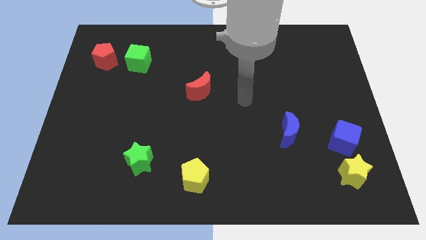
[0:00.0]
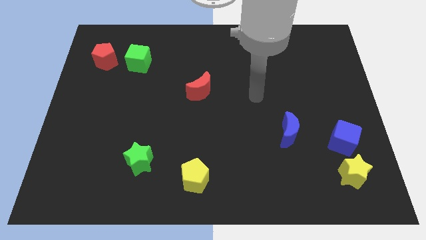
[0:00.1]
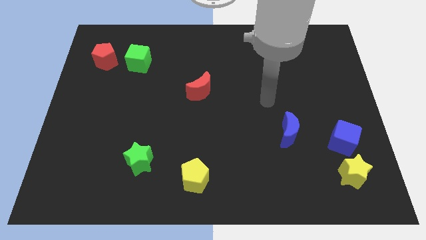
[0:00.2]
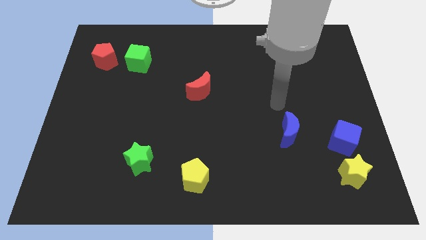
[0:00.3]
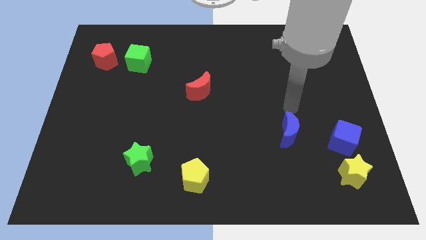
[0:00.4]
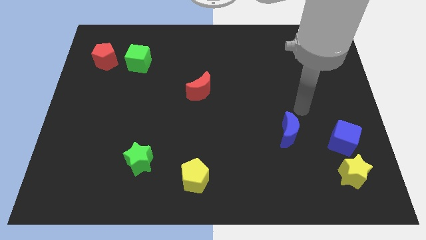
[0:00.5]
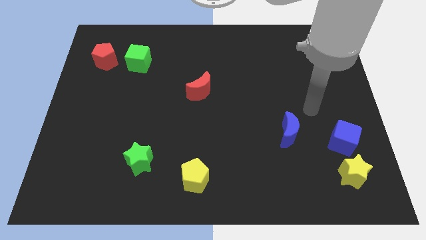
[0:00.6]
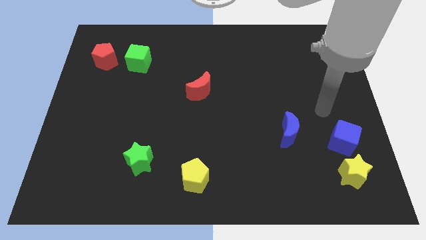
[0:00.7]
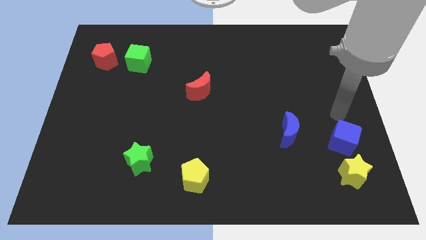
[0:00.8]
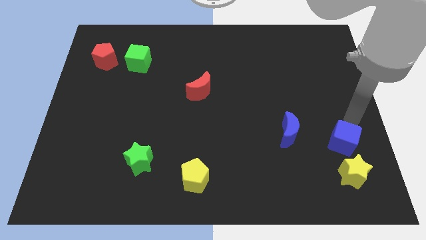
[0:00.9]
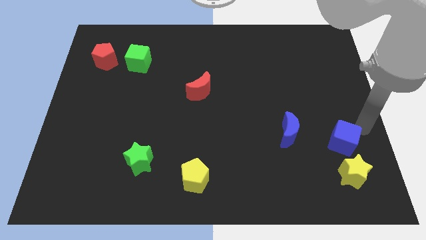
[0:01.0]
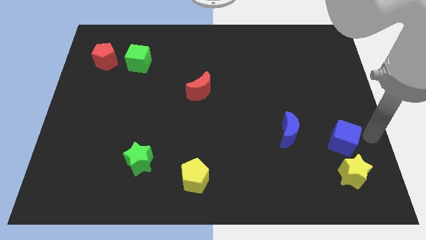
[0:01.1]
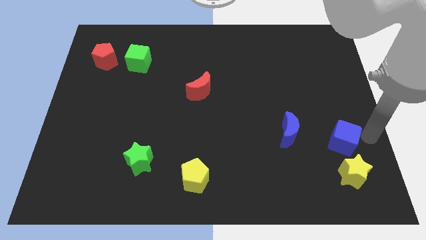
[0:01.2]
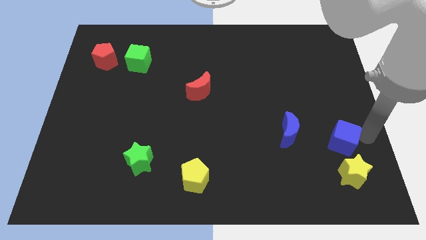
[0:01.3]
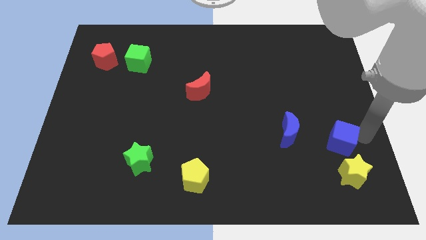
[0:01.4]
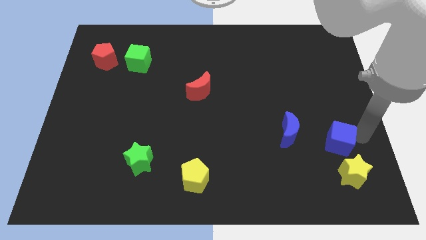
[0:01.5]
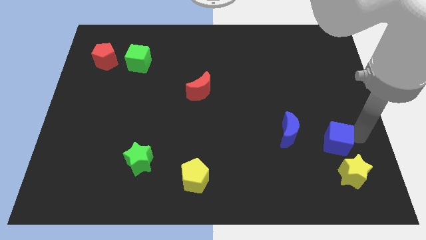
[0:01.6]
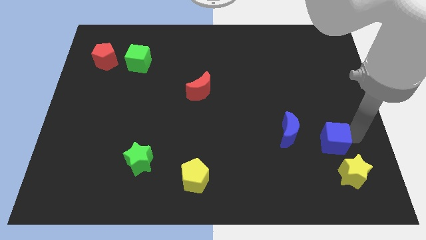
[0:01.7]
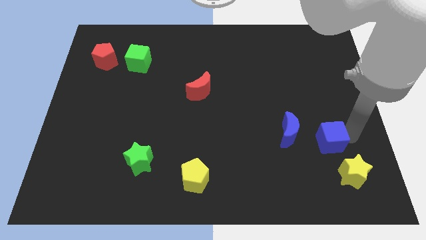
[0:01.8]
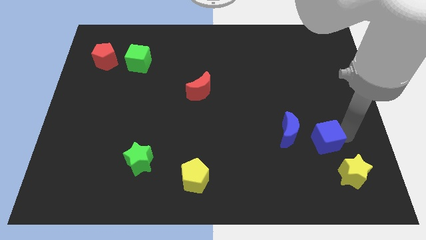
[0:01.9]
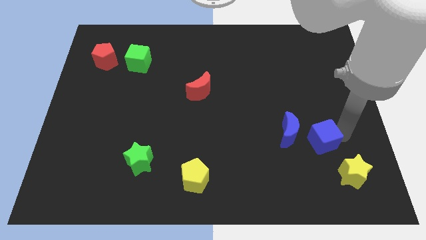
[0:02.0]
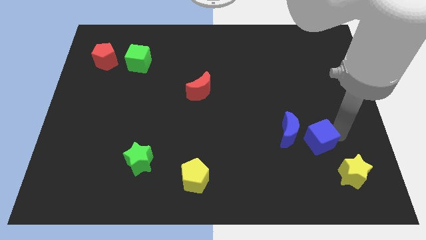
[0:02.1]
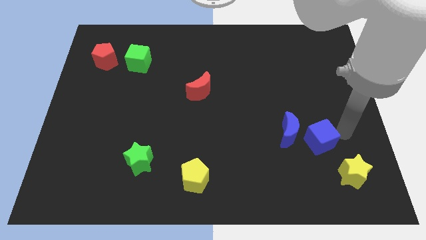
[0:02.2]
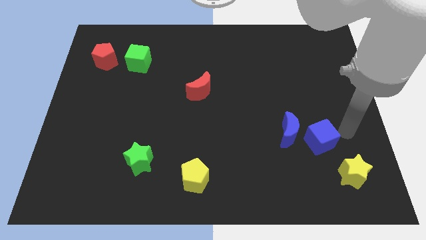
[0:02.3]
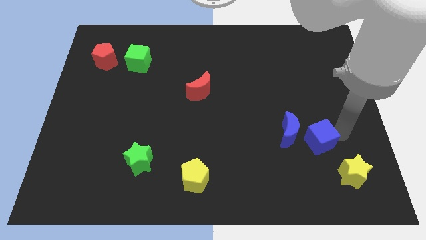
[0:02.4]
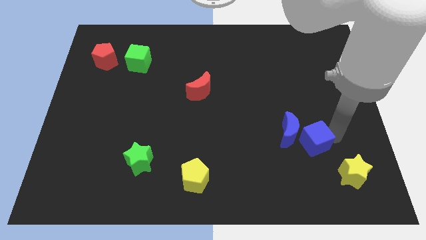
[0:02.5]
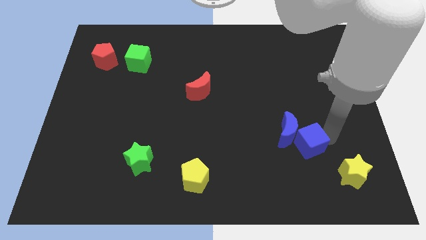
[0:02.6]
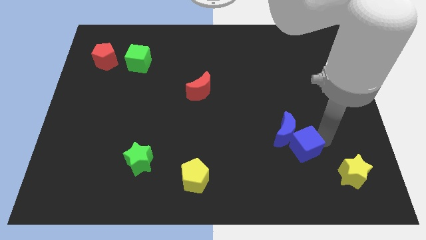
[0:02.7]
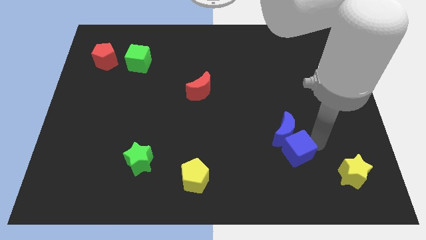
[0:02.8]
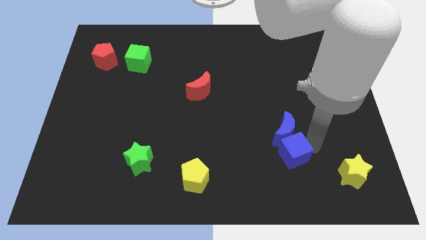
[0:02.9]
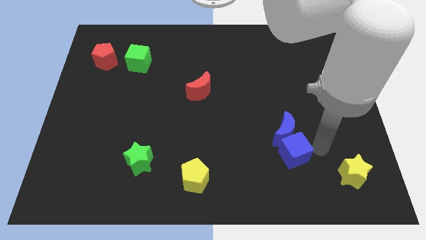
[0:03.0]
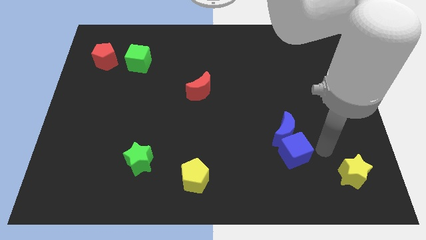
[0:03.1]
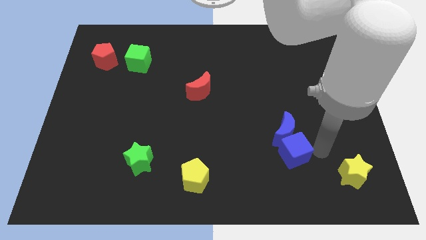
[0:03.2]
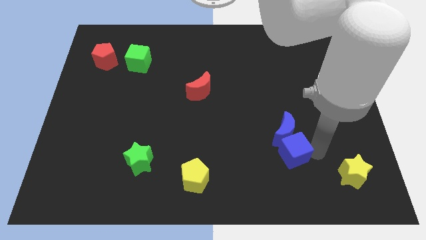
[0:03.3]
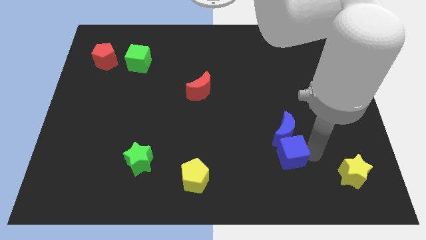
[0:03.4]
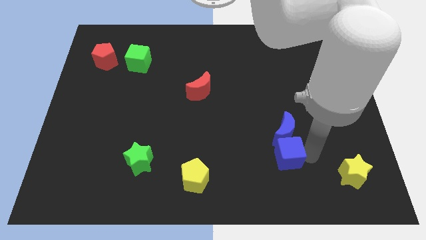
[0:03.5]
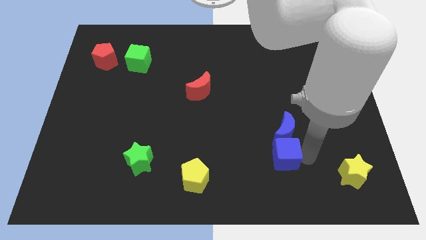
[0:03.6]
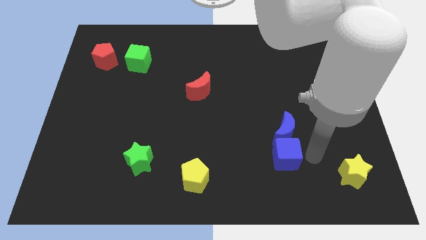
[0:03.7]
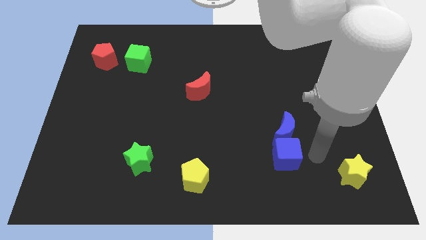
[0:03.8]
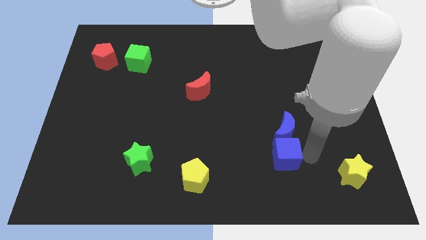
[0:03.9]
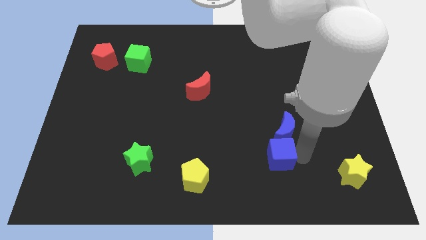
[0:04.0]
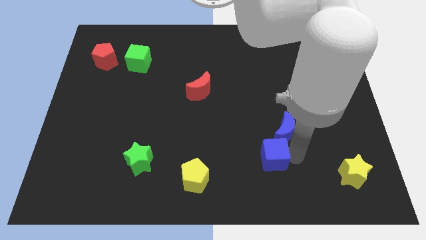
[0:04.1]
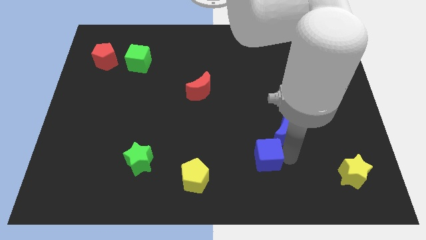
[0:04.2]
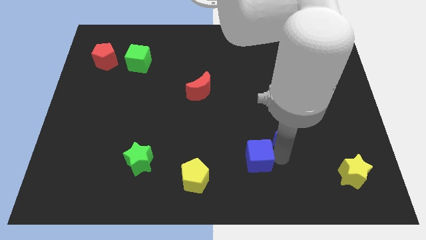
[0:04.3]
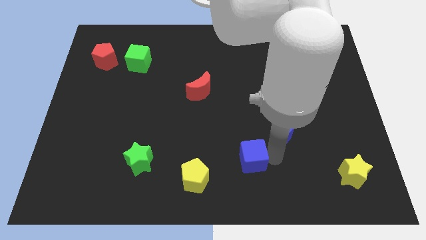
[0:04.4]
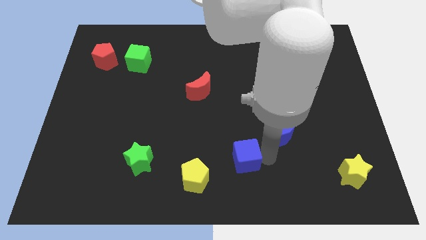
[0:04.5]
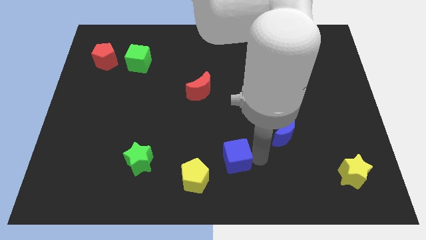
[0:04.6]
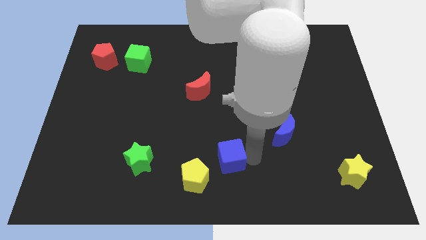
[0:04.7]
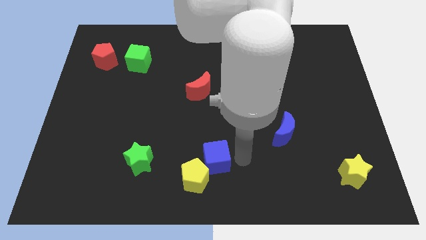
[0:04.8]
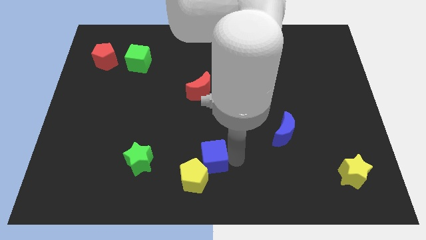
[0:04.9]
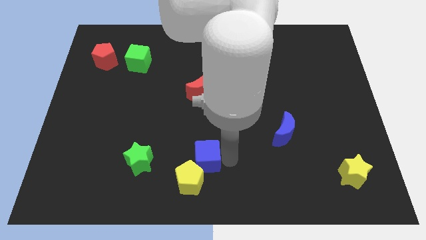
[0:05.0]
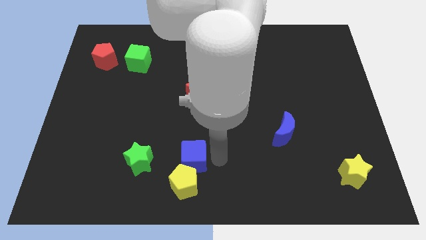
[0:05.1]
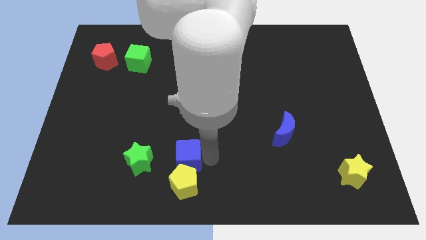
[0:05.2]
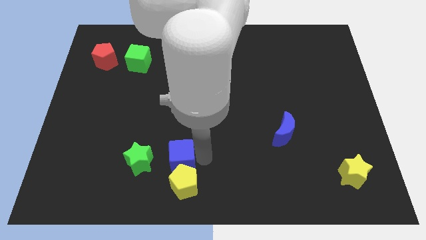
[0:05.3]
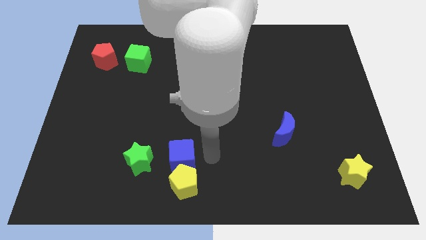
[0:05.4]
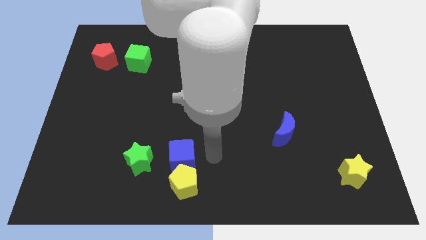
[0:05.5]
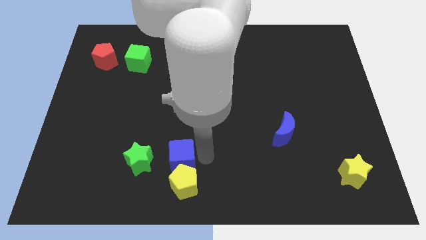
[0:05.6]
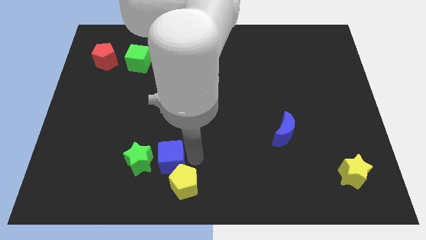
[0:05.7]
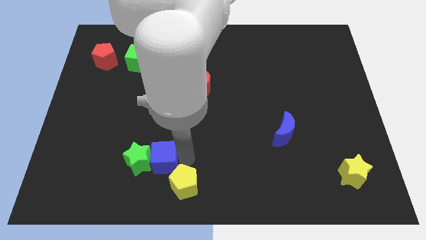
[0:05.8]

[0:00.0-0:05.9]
move the blue cube towards the green star

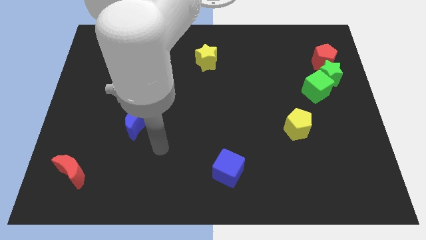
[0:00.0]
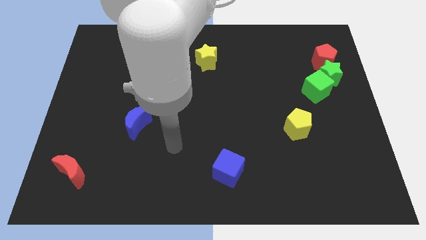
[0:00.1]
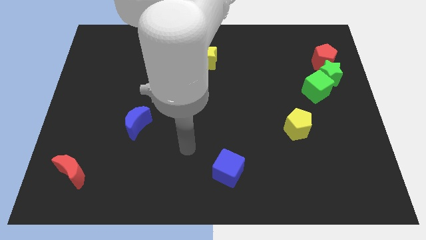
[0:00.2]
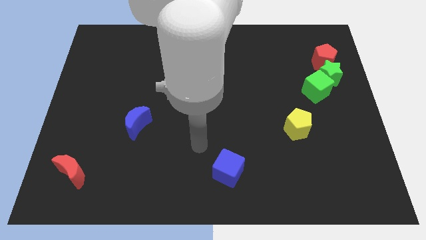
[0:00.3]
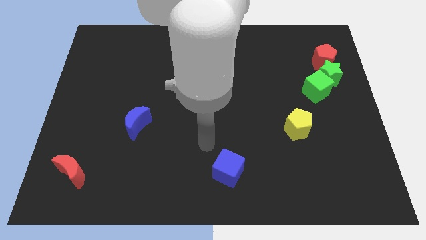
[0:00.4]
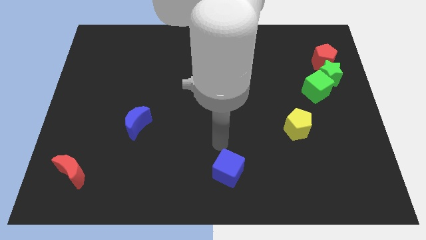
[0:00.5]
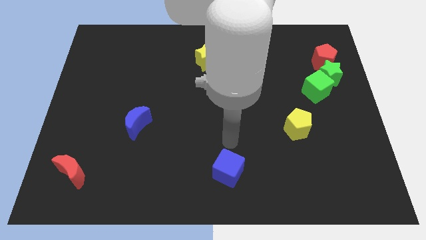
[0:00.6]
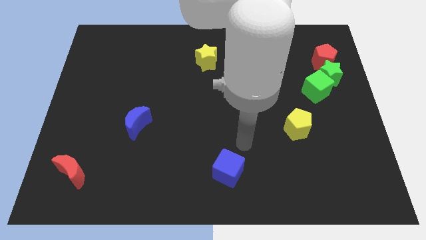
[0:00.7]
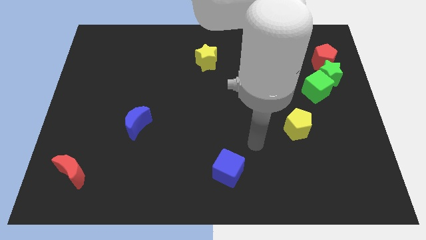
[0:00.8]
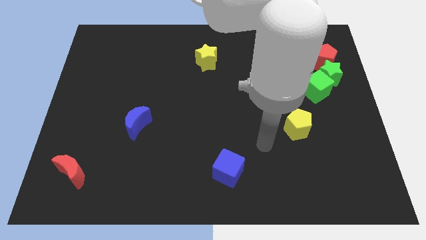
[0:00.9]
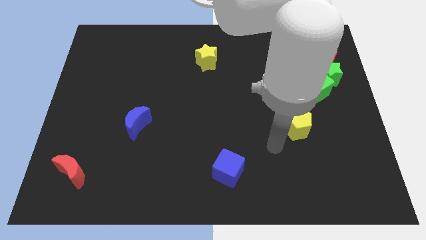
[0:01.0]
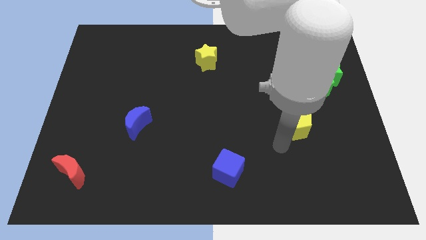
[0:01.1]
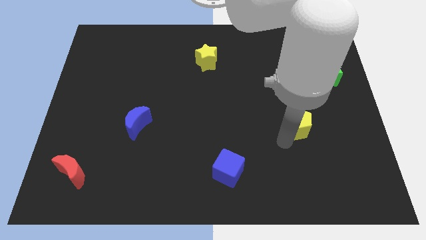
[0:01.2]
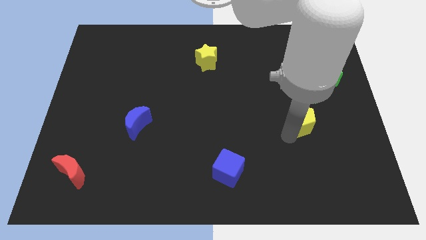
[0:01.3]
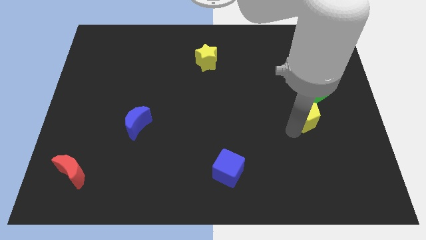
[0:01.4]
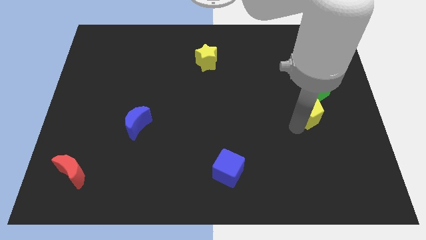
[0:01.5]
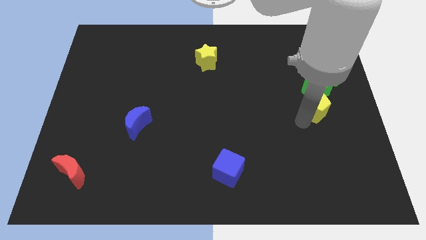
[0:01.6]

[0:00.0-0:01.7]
put the yellow pentagon close to the green cube
